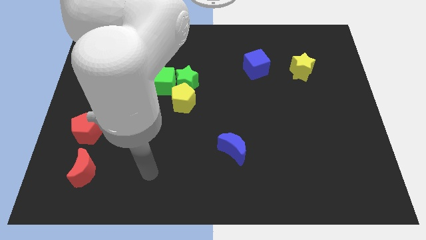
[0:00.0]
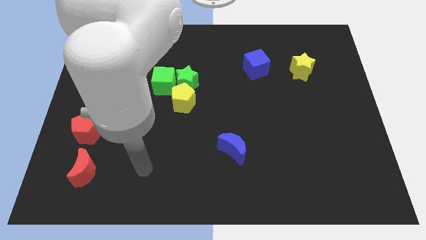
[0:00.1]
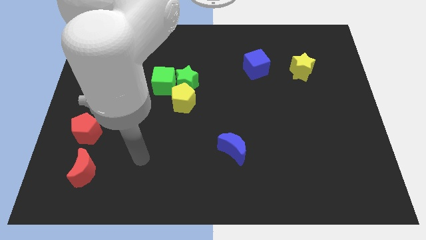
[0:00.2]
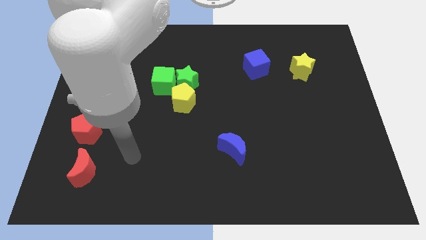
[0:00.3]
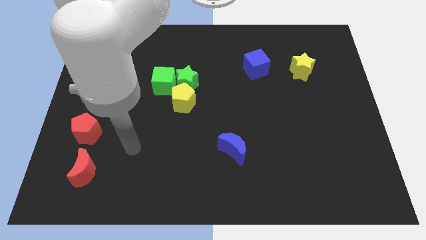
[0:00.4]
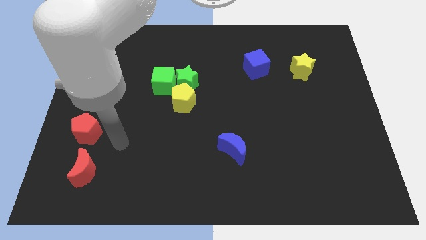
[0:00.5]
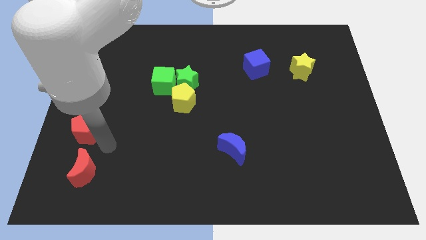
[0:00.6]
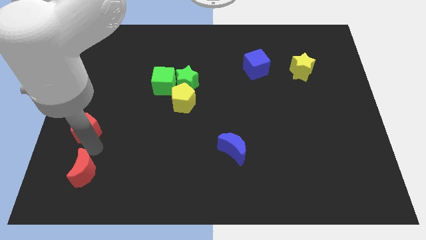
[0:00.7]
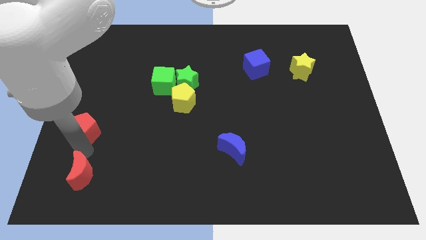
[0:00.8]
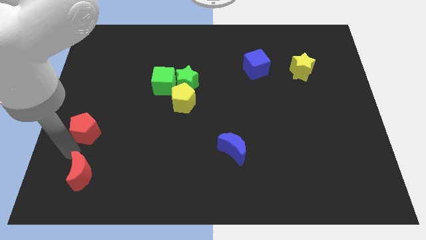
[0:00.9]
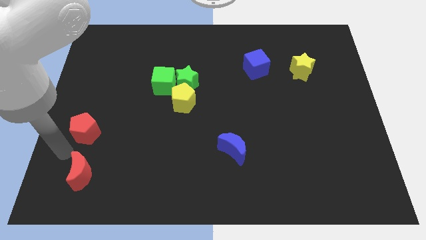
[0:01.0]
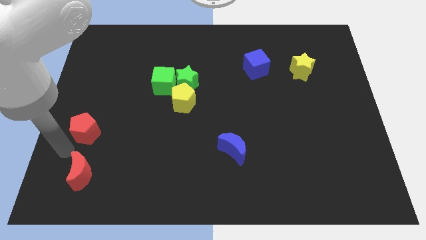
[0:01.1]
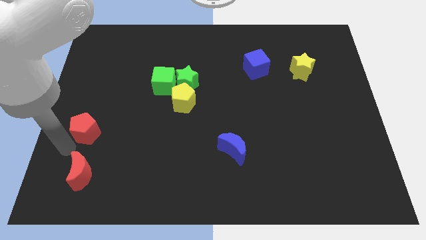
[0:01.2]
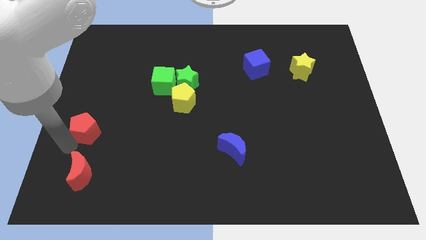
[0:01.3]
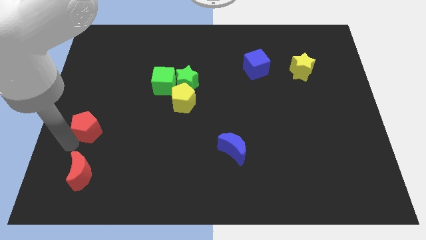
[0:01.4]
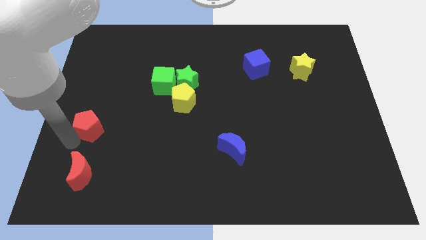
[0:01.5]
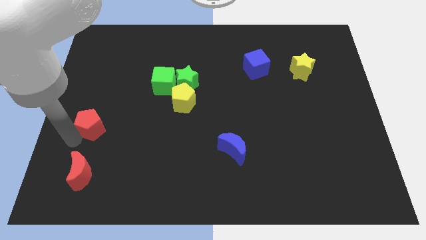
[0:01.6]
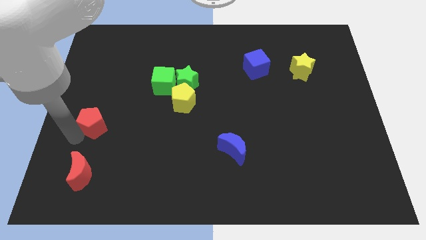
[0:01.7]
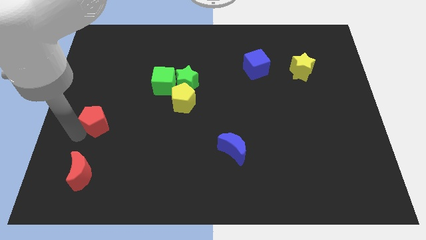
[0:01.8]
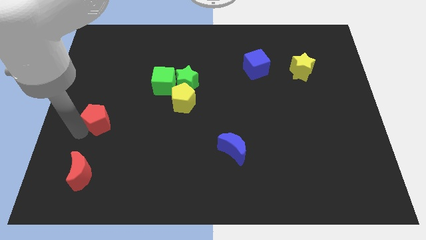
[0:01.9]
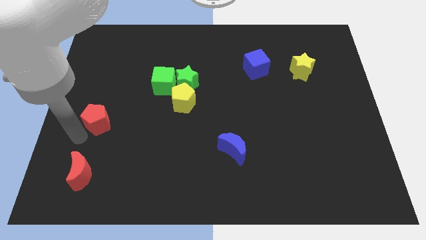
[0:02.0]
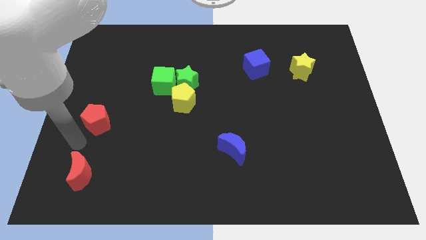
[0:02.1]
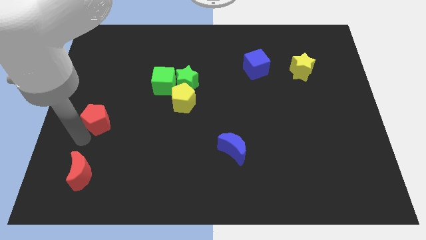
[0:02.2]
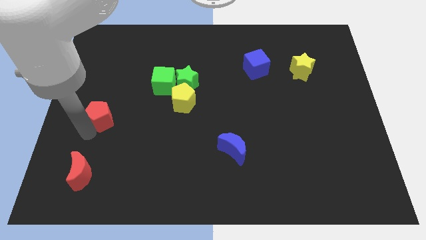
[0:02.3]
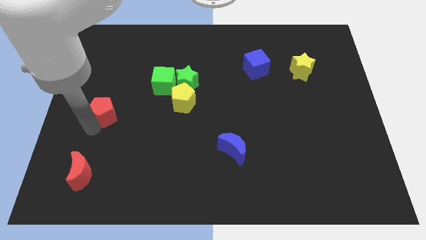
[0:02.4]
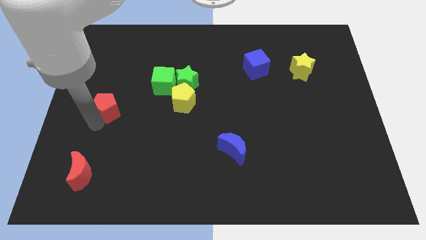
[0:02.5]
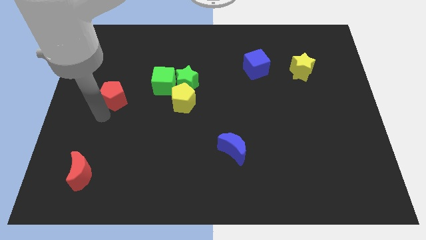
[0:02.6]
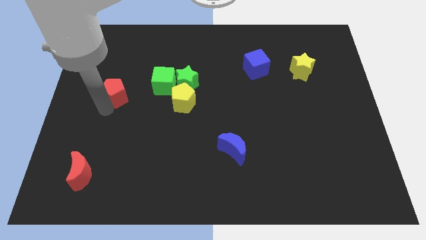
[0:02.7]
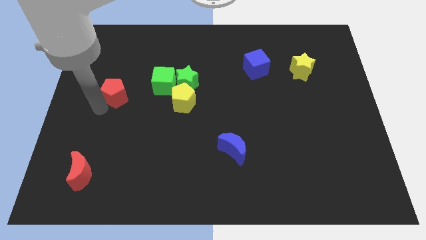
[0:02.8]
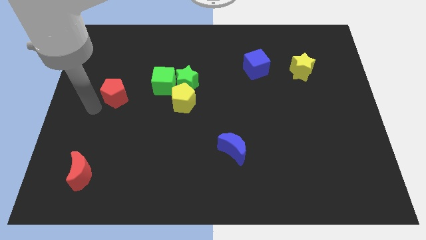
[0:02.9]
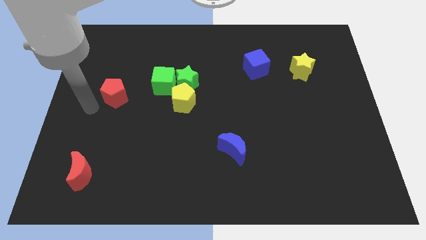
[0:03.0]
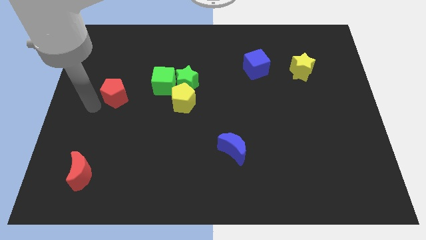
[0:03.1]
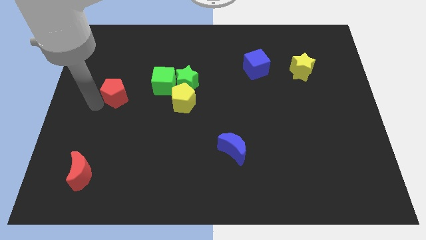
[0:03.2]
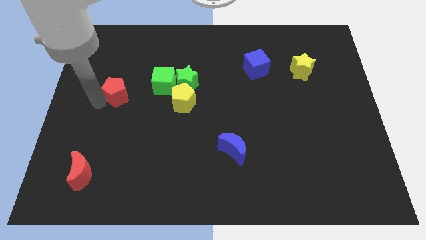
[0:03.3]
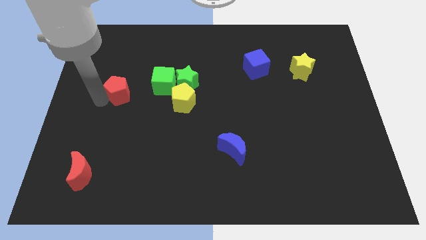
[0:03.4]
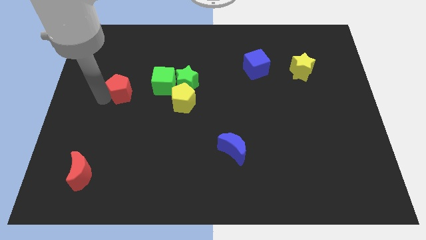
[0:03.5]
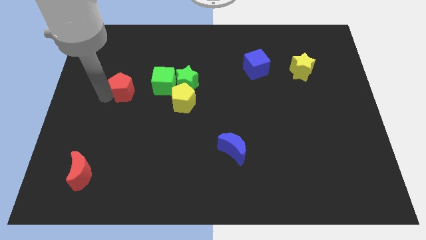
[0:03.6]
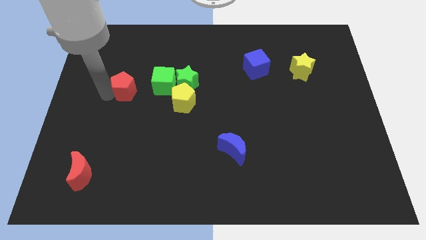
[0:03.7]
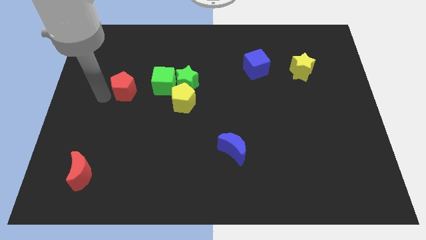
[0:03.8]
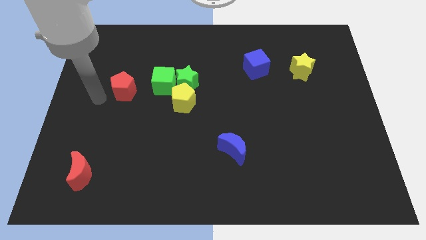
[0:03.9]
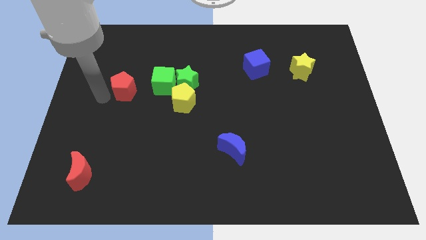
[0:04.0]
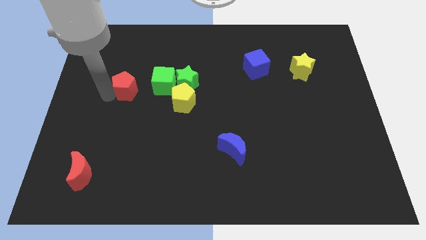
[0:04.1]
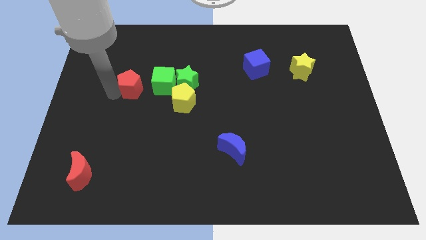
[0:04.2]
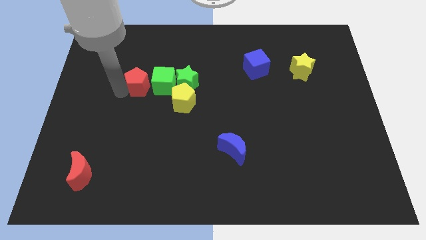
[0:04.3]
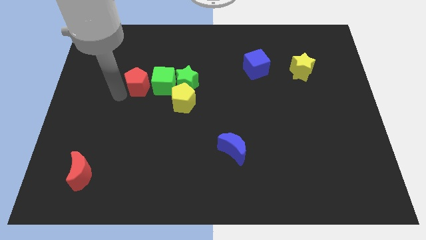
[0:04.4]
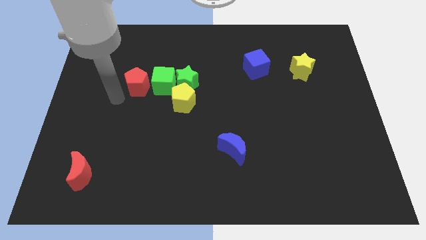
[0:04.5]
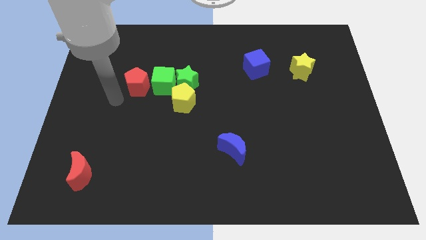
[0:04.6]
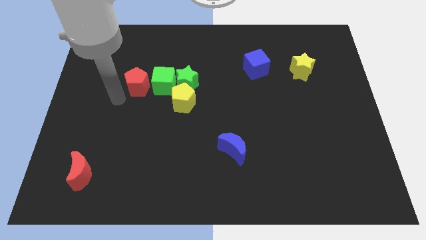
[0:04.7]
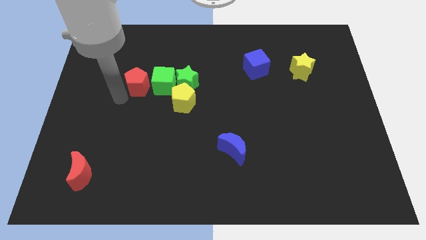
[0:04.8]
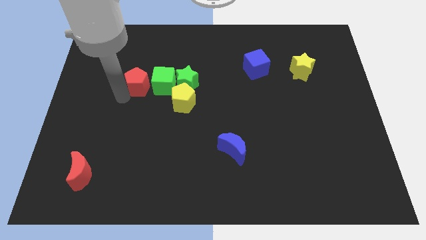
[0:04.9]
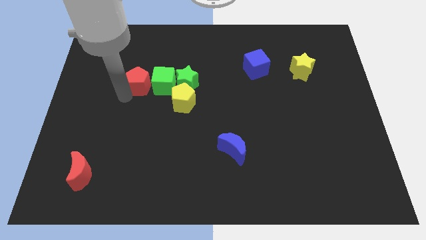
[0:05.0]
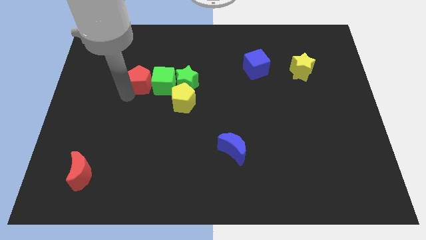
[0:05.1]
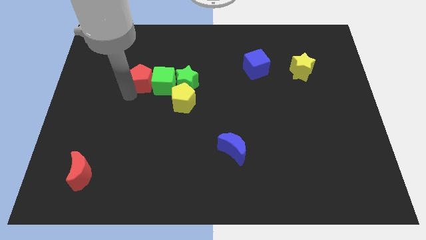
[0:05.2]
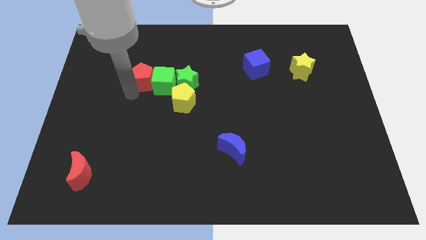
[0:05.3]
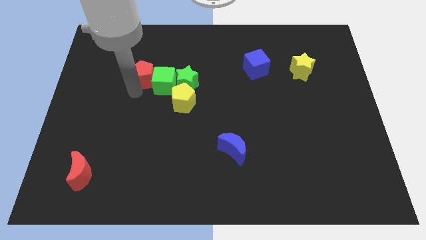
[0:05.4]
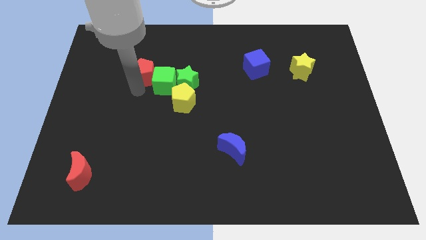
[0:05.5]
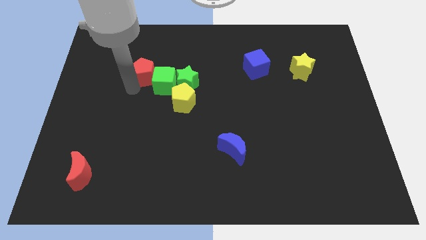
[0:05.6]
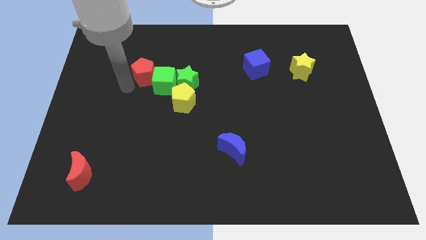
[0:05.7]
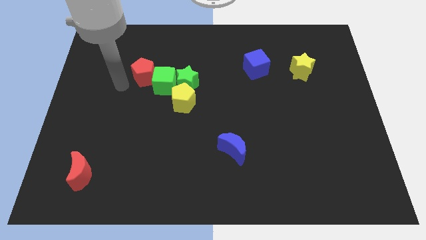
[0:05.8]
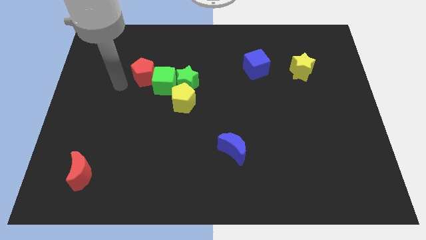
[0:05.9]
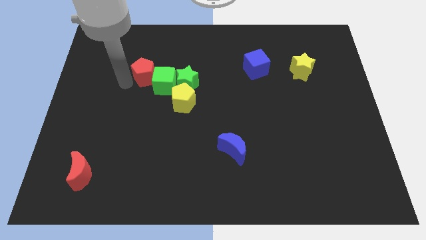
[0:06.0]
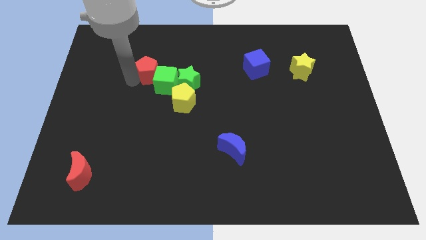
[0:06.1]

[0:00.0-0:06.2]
push the red pentagon diagonally upwards and to the right

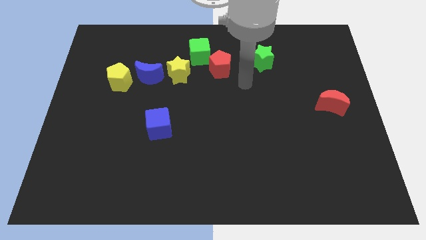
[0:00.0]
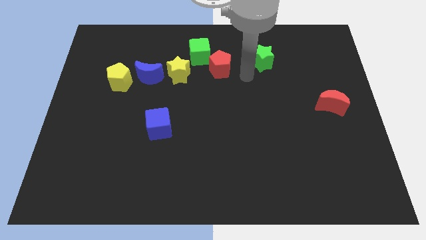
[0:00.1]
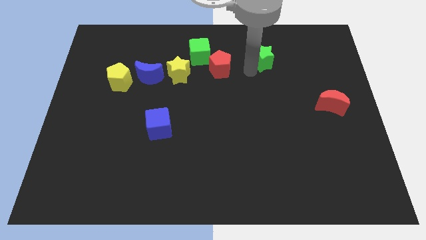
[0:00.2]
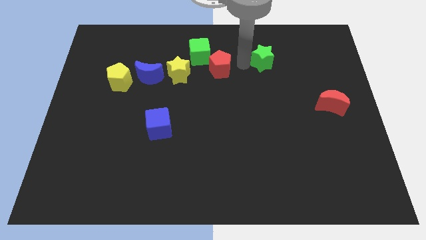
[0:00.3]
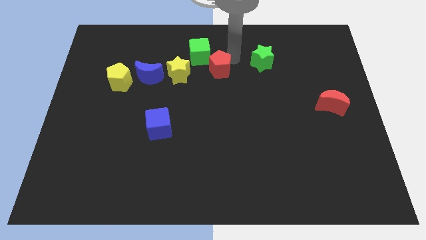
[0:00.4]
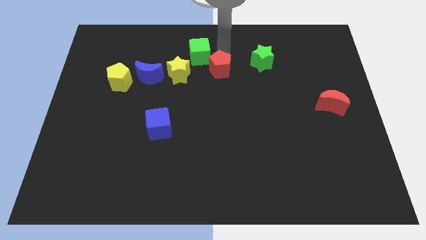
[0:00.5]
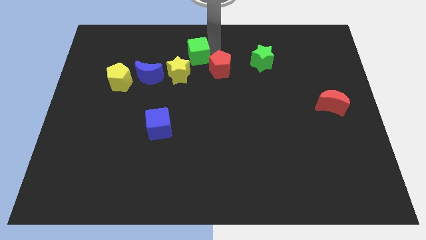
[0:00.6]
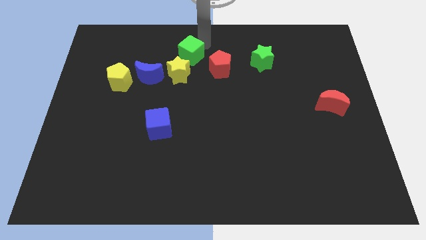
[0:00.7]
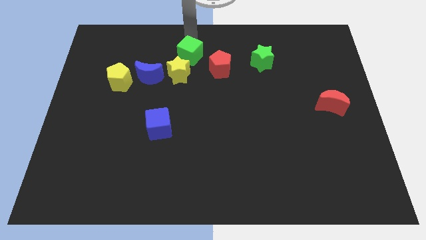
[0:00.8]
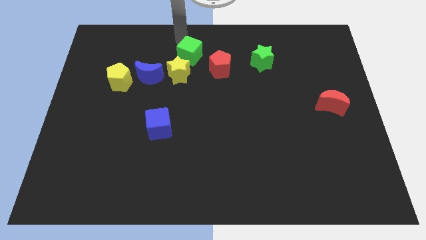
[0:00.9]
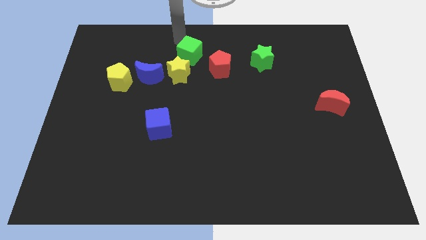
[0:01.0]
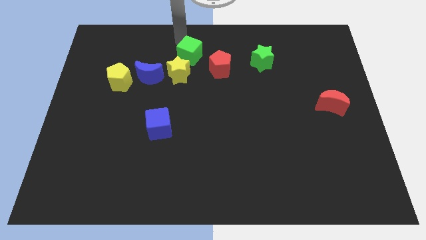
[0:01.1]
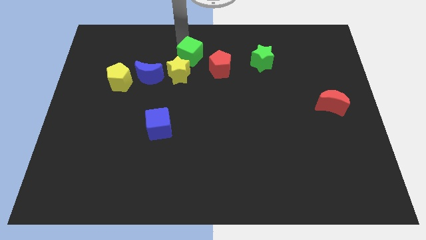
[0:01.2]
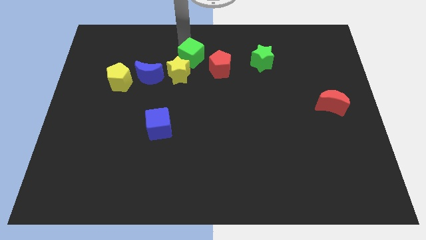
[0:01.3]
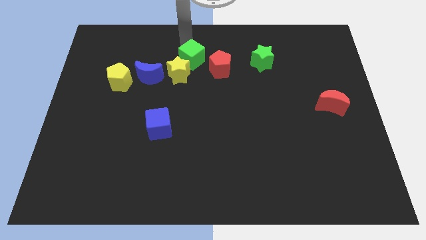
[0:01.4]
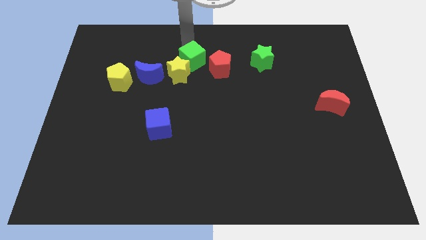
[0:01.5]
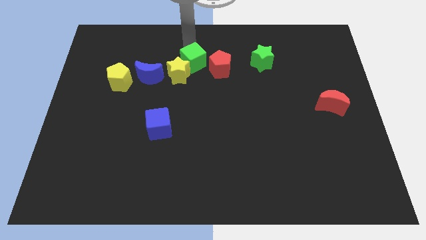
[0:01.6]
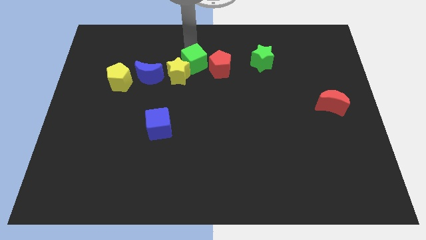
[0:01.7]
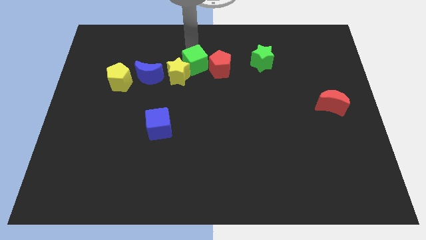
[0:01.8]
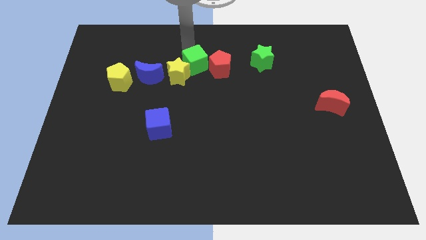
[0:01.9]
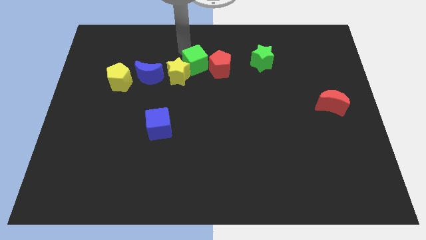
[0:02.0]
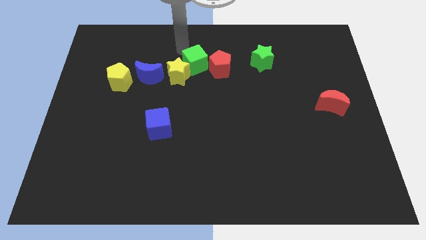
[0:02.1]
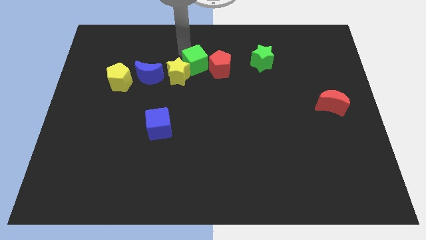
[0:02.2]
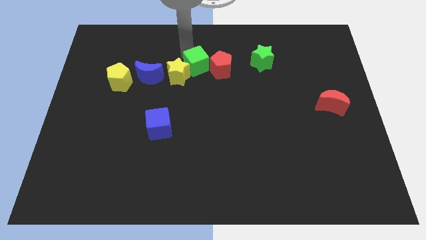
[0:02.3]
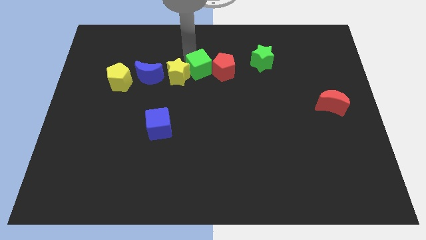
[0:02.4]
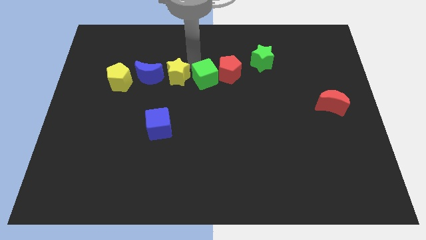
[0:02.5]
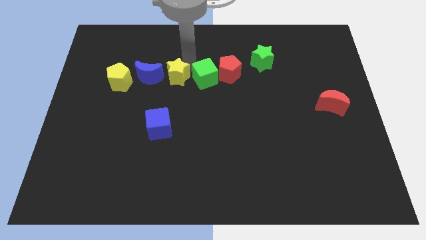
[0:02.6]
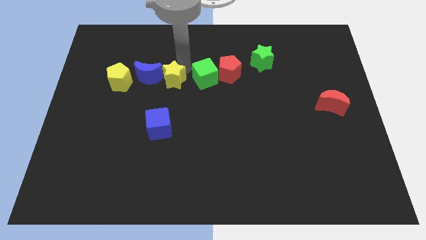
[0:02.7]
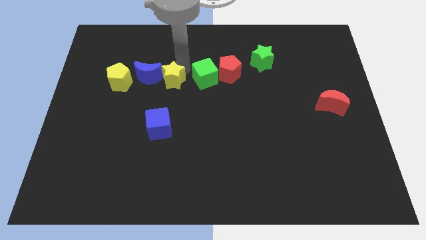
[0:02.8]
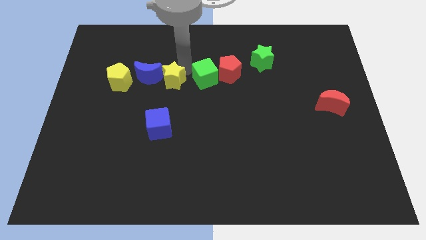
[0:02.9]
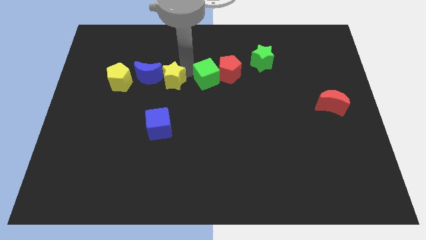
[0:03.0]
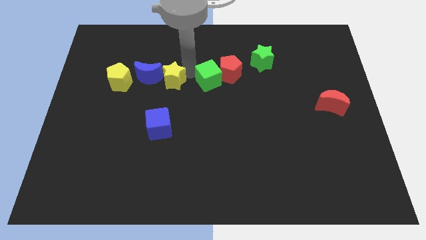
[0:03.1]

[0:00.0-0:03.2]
slide the green cube down and to the right a bit
